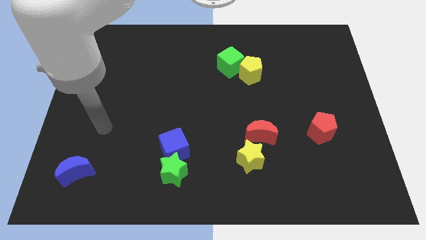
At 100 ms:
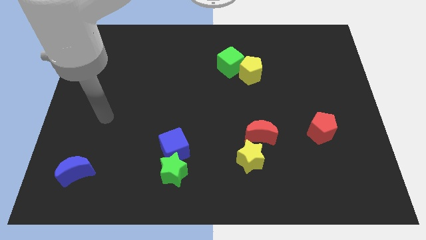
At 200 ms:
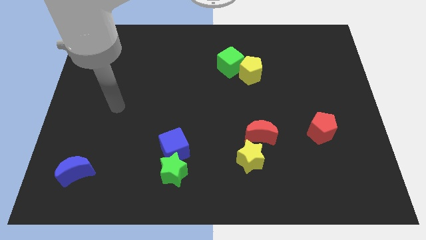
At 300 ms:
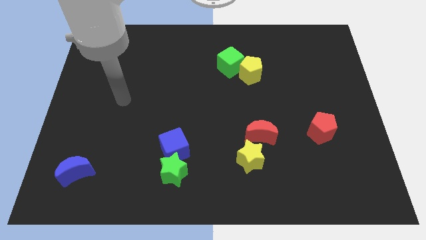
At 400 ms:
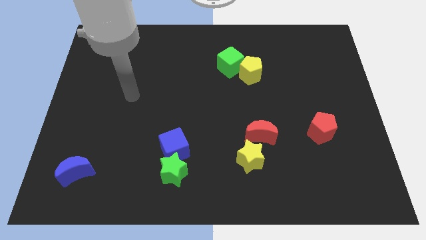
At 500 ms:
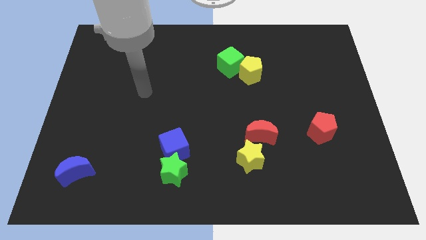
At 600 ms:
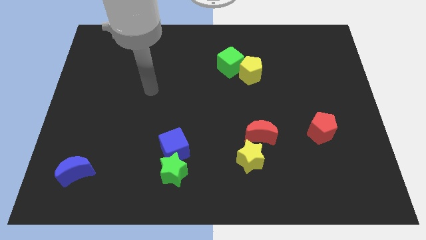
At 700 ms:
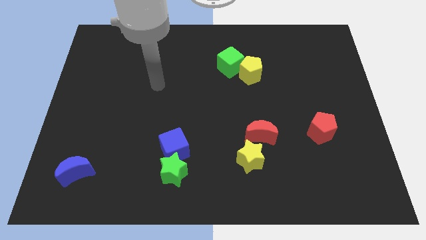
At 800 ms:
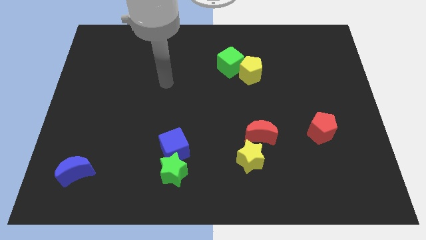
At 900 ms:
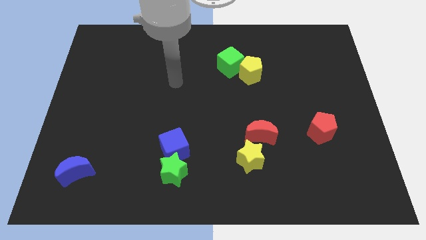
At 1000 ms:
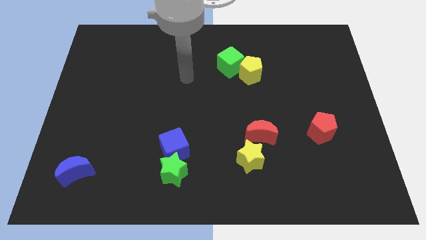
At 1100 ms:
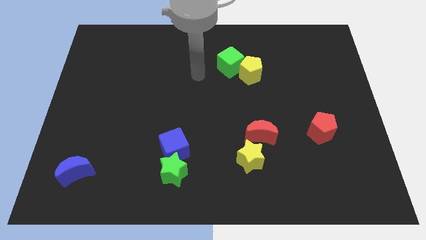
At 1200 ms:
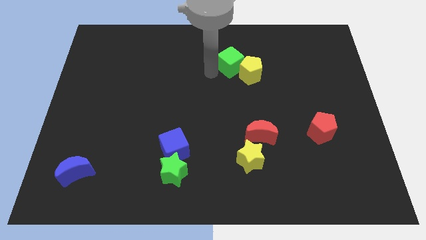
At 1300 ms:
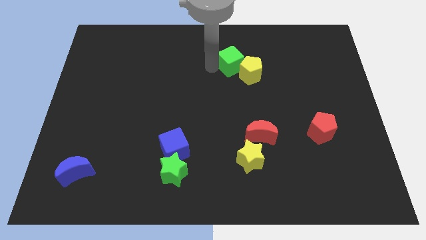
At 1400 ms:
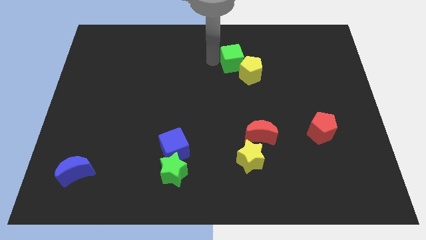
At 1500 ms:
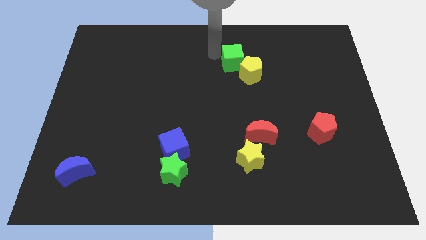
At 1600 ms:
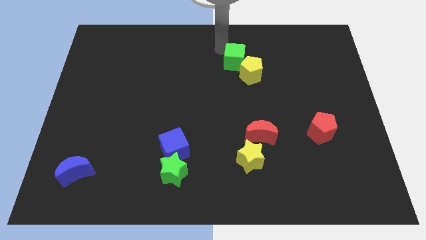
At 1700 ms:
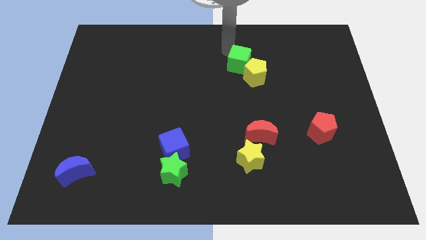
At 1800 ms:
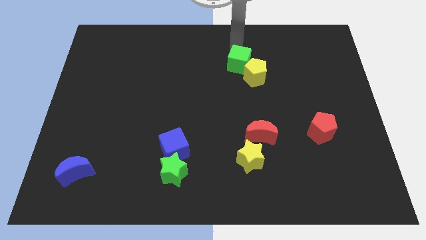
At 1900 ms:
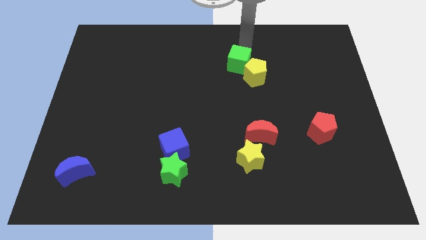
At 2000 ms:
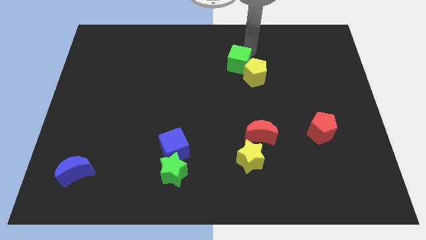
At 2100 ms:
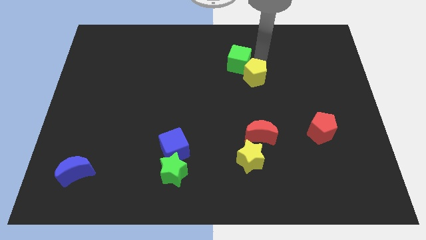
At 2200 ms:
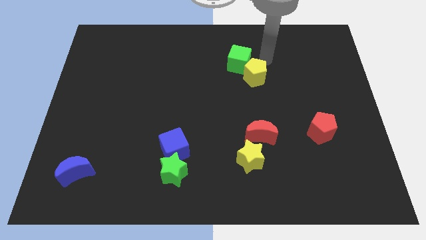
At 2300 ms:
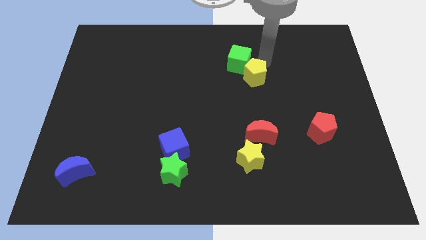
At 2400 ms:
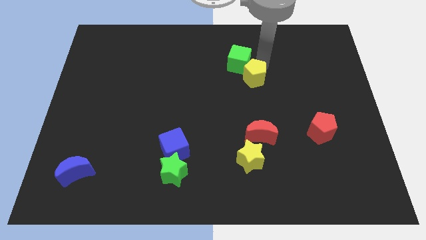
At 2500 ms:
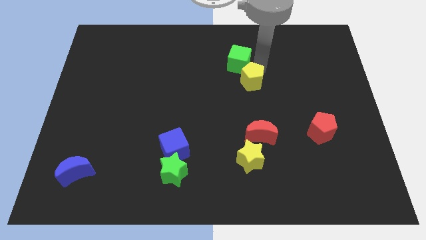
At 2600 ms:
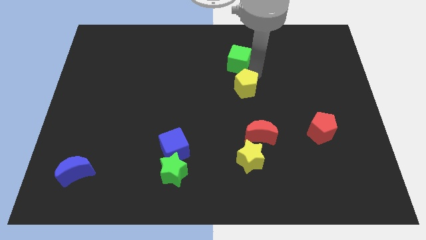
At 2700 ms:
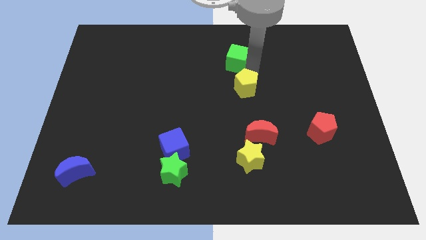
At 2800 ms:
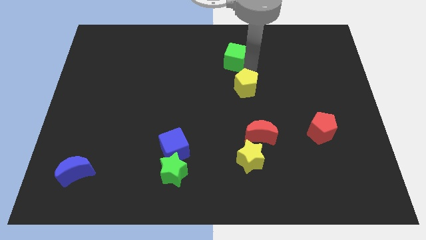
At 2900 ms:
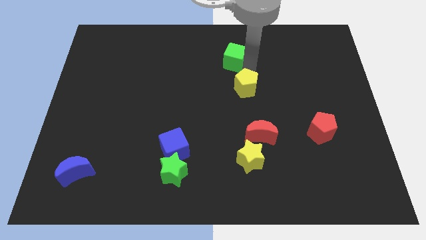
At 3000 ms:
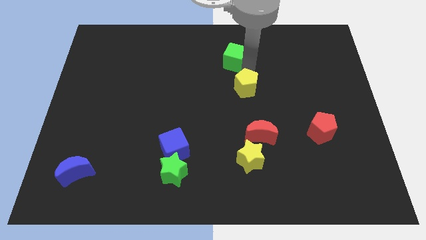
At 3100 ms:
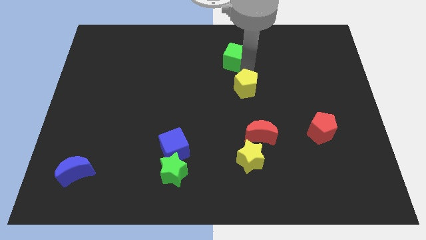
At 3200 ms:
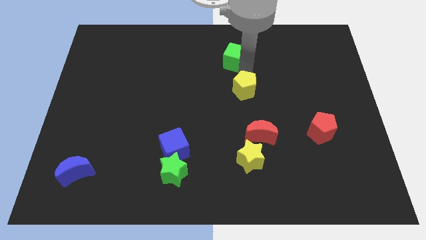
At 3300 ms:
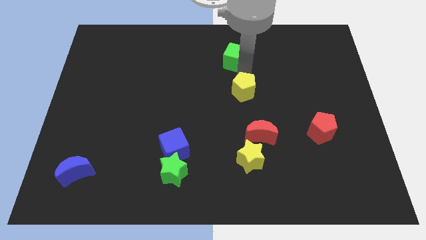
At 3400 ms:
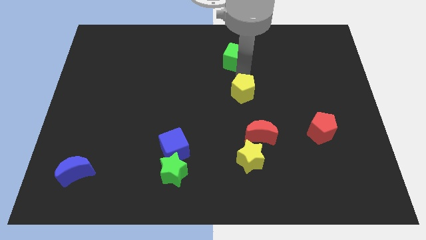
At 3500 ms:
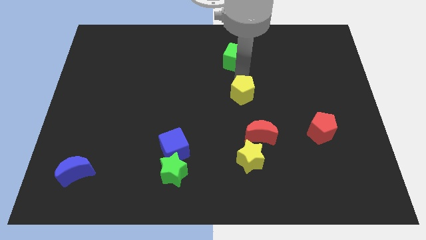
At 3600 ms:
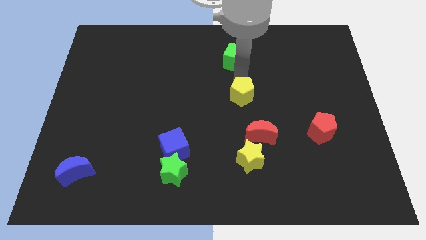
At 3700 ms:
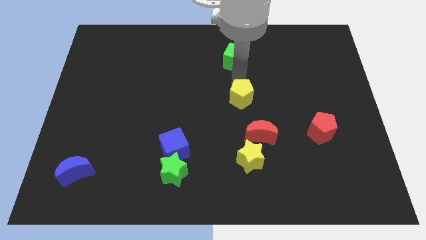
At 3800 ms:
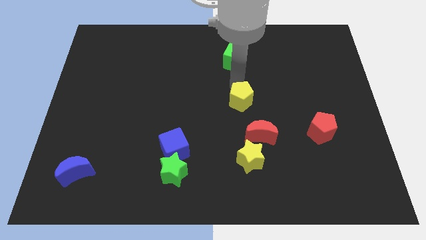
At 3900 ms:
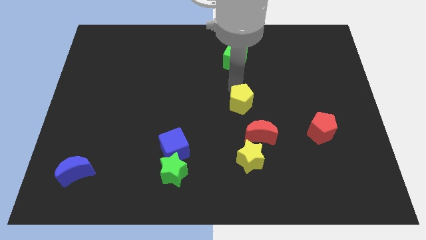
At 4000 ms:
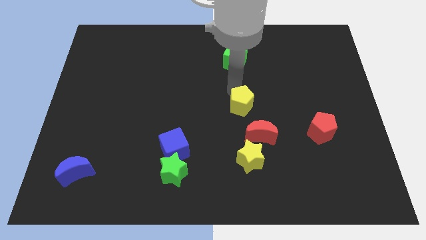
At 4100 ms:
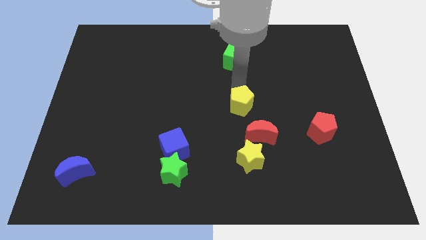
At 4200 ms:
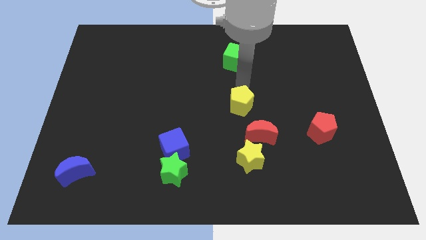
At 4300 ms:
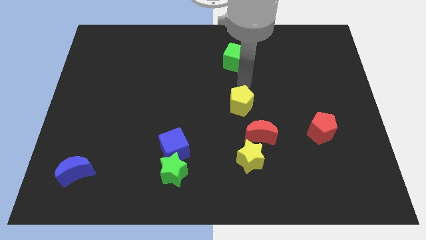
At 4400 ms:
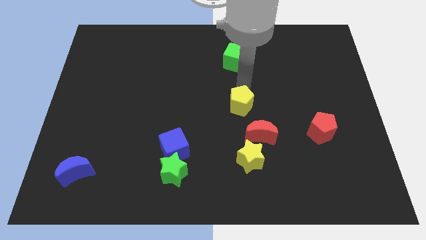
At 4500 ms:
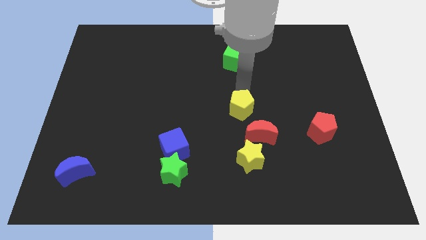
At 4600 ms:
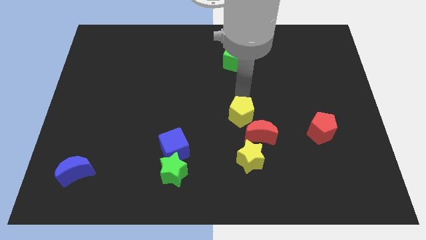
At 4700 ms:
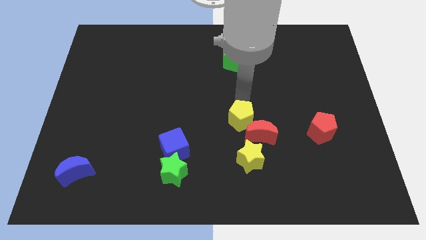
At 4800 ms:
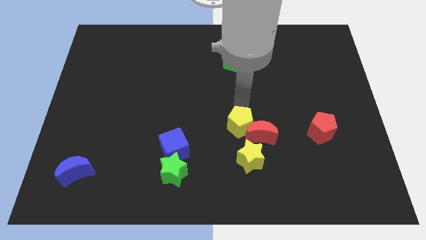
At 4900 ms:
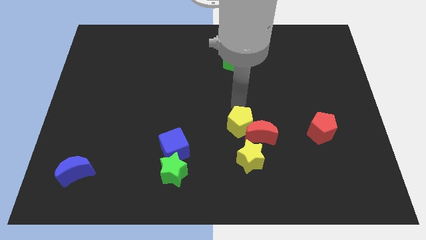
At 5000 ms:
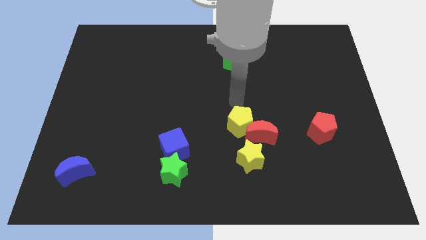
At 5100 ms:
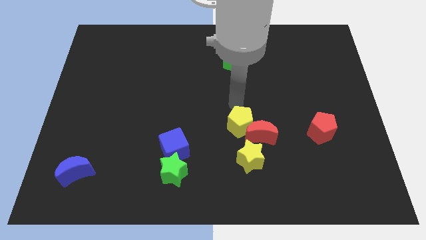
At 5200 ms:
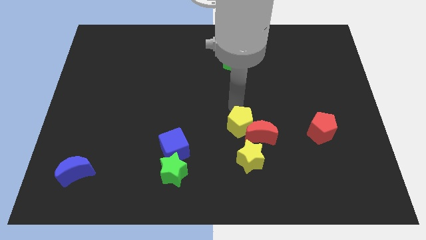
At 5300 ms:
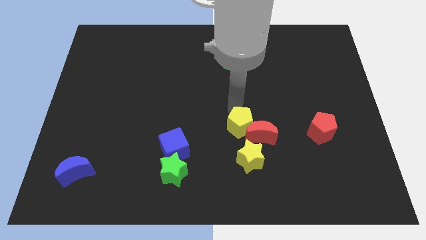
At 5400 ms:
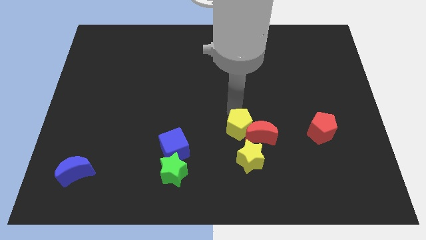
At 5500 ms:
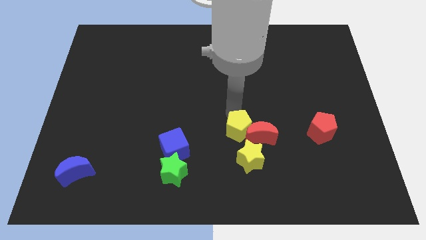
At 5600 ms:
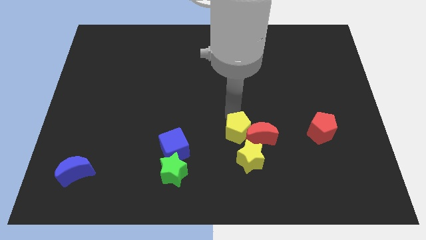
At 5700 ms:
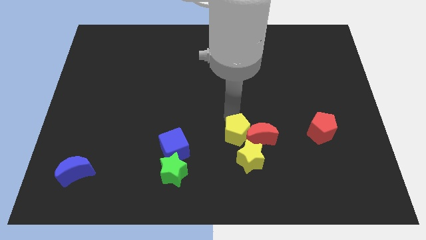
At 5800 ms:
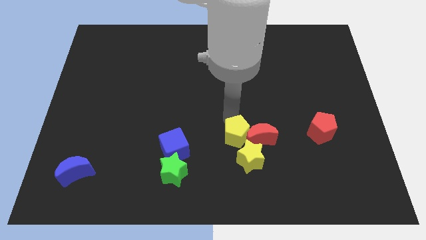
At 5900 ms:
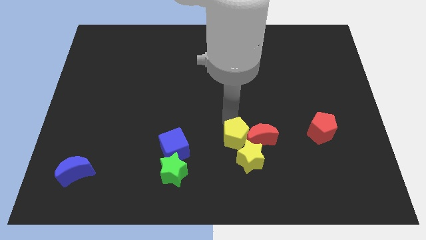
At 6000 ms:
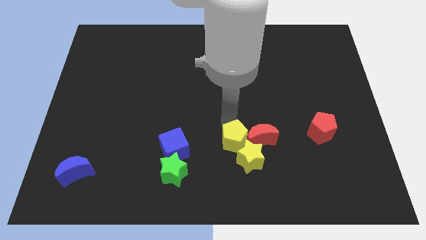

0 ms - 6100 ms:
put the yellow pentagon close to the yellow star

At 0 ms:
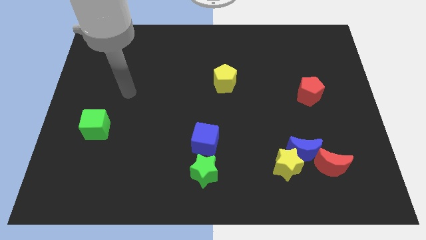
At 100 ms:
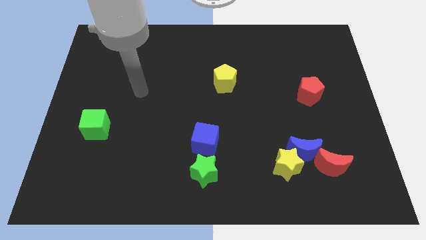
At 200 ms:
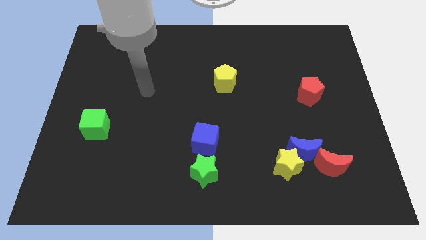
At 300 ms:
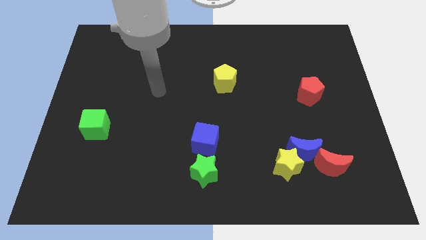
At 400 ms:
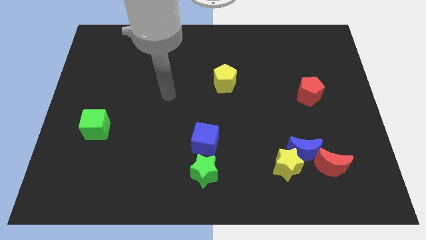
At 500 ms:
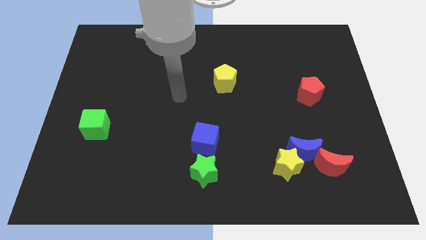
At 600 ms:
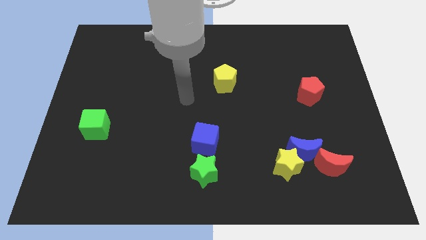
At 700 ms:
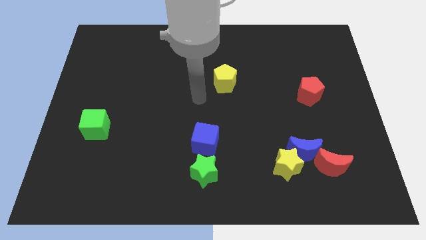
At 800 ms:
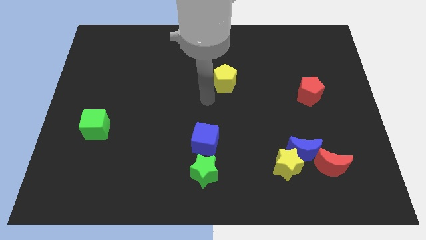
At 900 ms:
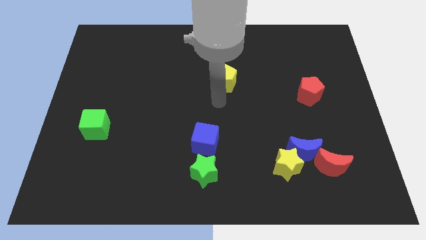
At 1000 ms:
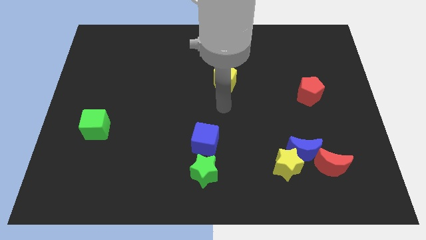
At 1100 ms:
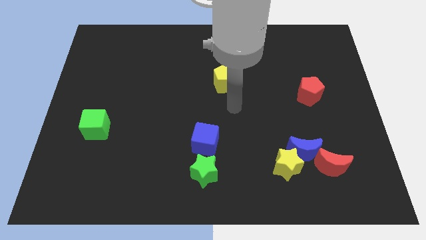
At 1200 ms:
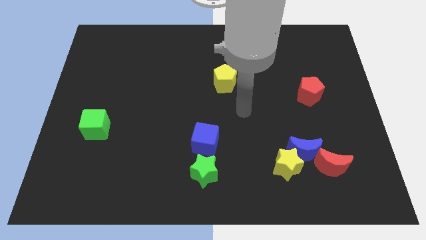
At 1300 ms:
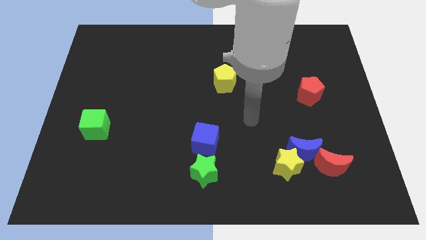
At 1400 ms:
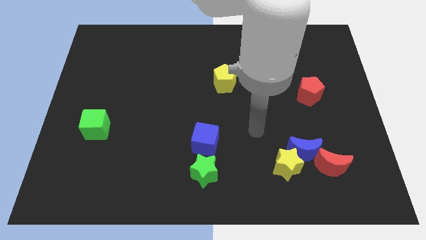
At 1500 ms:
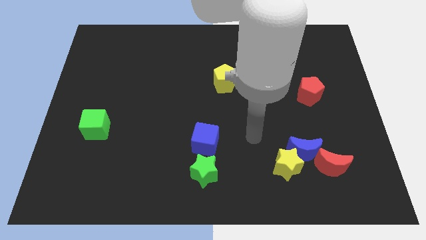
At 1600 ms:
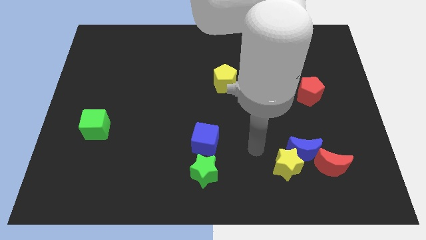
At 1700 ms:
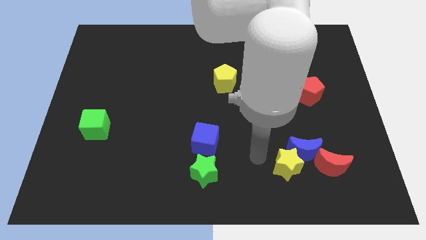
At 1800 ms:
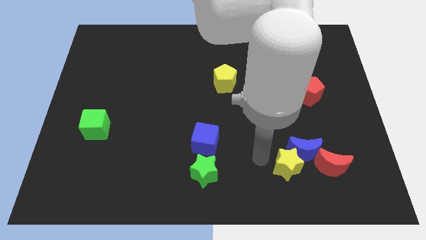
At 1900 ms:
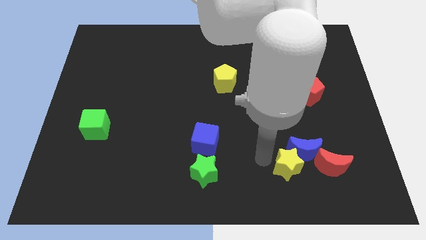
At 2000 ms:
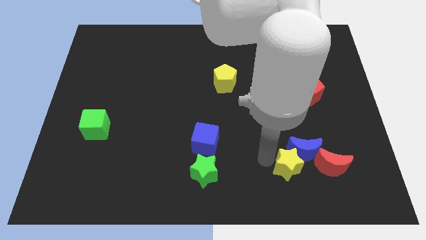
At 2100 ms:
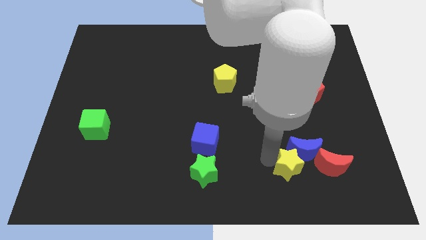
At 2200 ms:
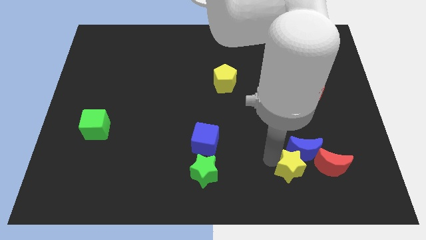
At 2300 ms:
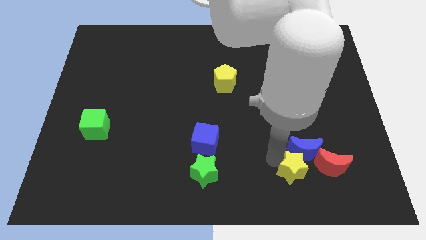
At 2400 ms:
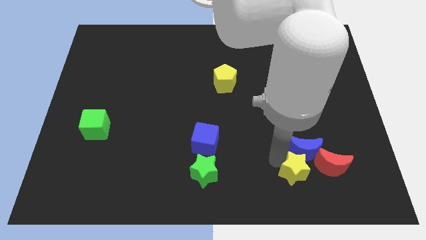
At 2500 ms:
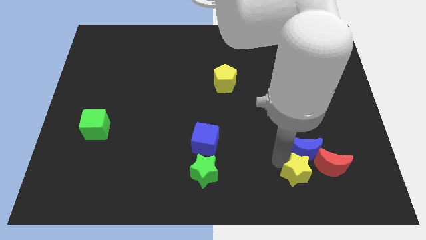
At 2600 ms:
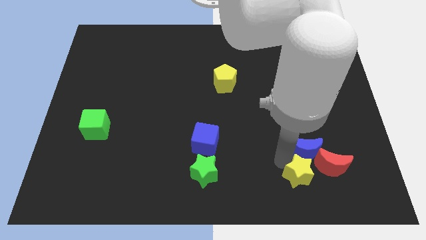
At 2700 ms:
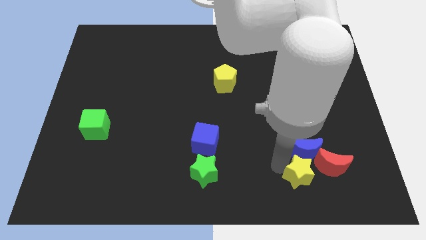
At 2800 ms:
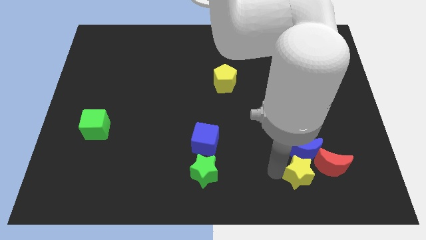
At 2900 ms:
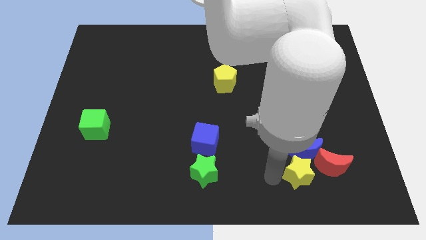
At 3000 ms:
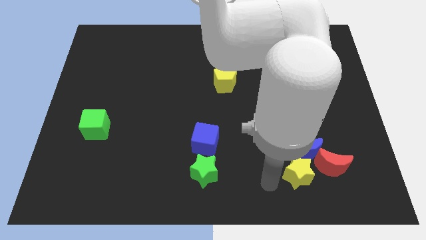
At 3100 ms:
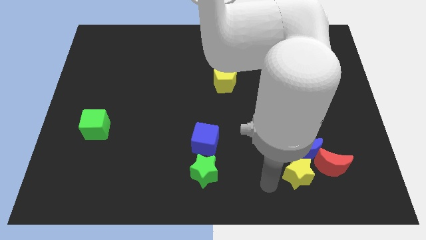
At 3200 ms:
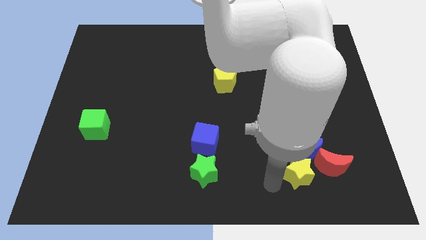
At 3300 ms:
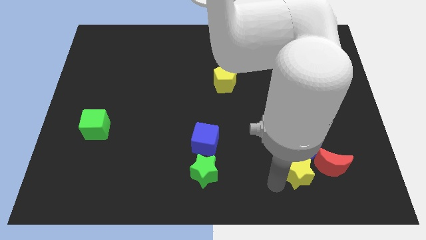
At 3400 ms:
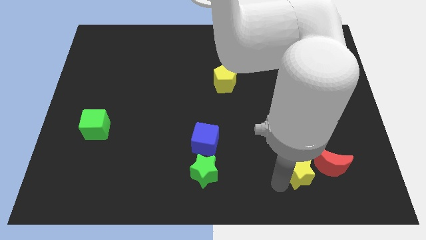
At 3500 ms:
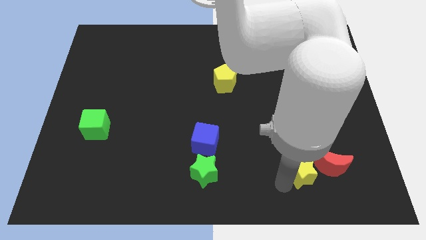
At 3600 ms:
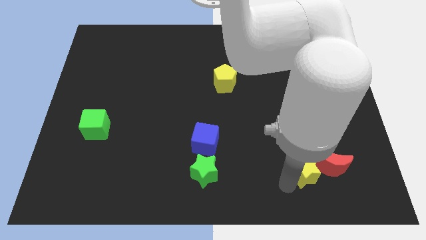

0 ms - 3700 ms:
push the yellow star close to the red moon
